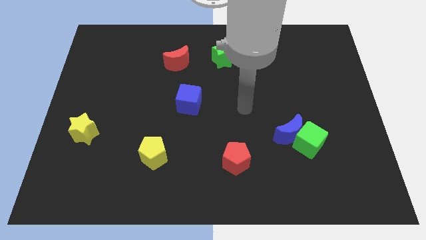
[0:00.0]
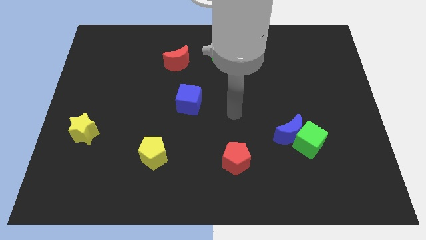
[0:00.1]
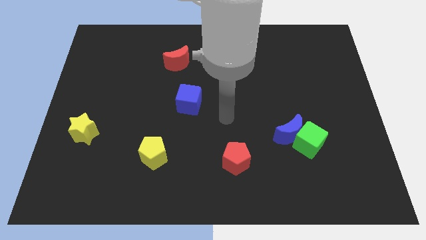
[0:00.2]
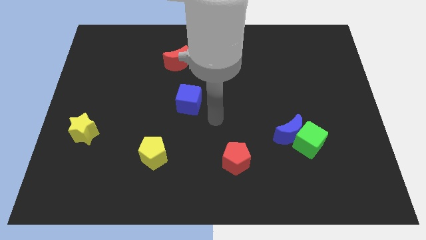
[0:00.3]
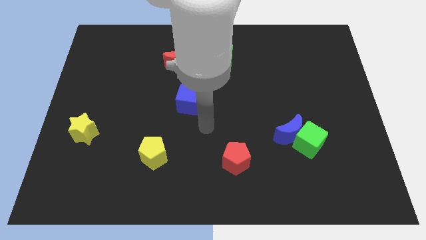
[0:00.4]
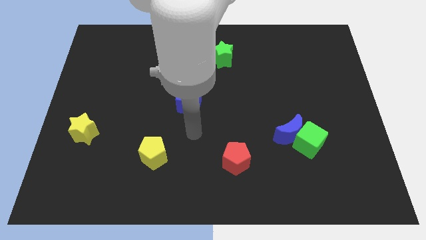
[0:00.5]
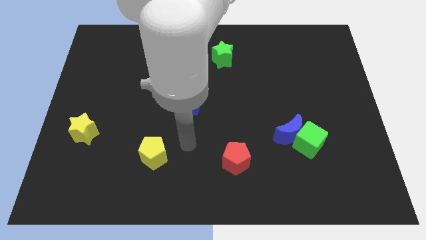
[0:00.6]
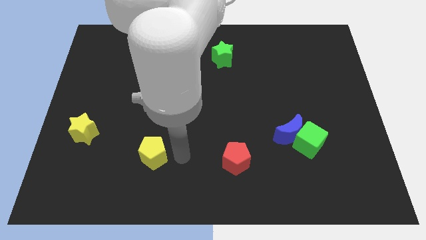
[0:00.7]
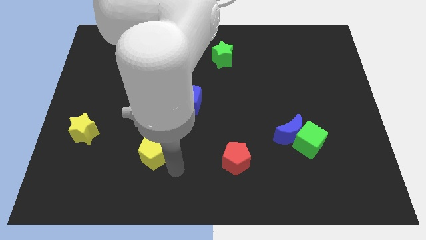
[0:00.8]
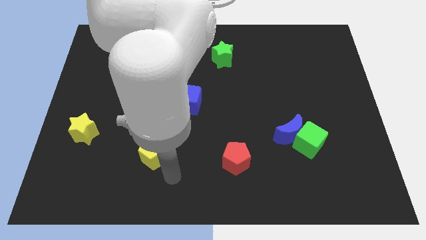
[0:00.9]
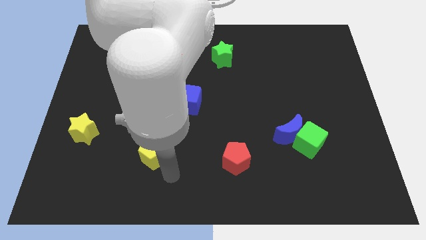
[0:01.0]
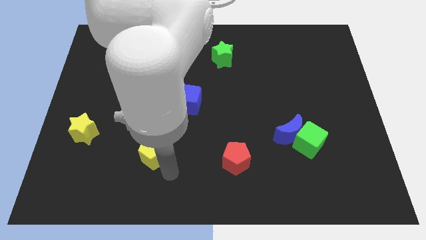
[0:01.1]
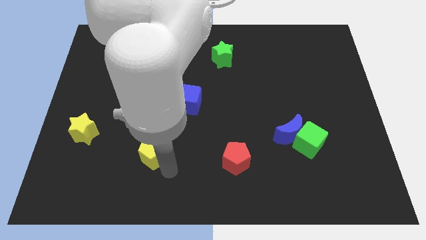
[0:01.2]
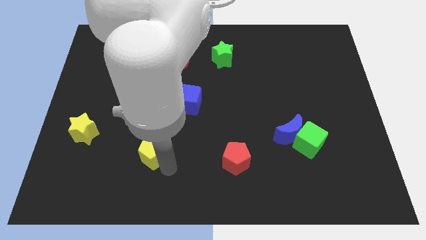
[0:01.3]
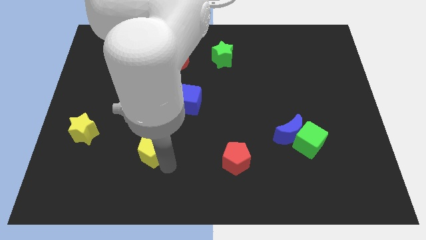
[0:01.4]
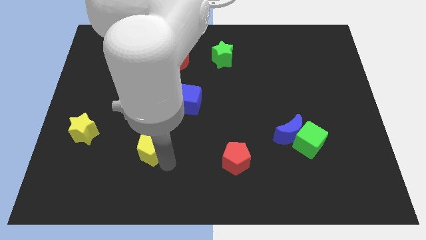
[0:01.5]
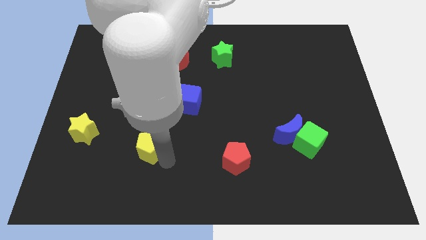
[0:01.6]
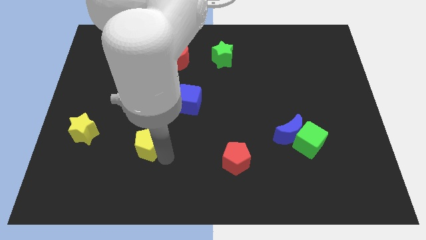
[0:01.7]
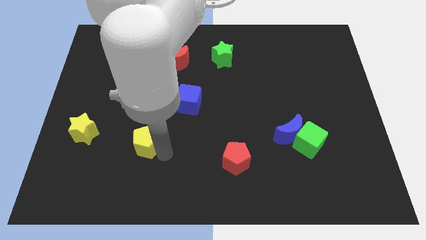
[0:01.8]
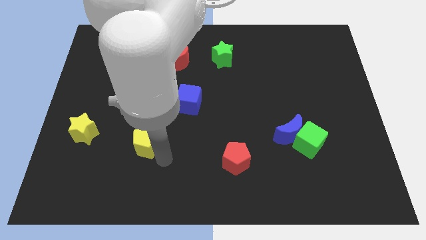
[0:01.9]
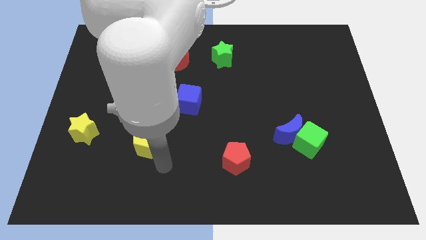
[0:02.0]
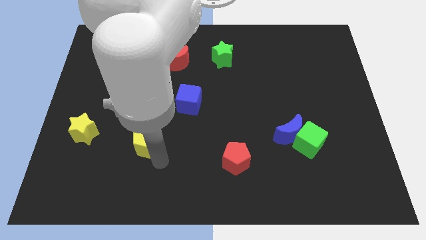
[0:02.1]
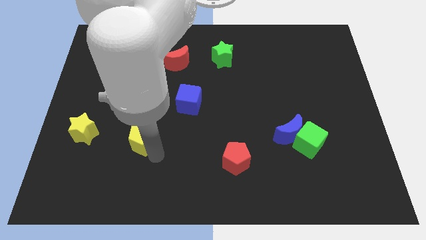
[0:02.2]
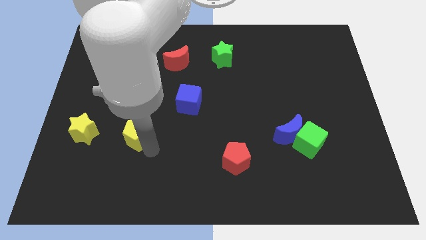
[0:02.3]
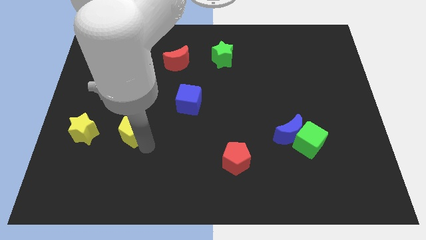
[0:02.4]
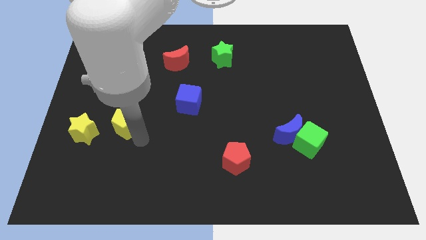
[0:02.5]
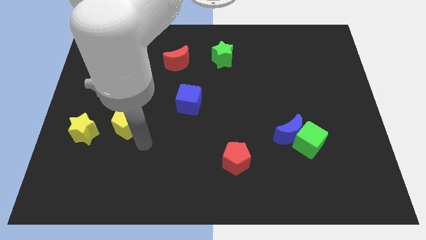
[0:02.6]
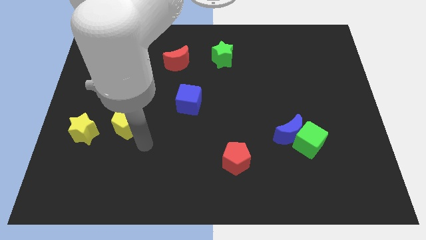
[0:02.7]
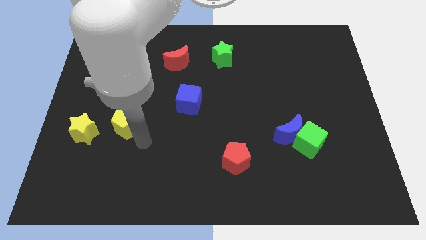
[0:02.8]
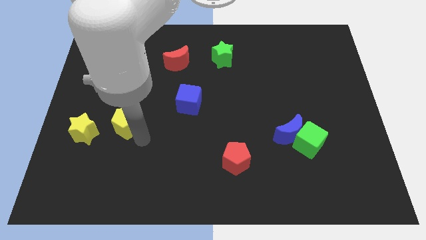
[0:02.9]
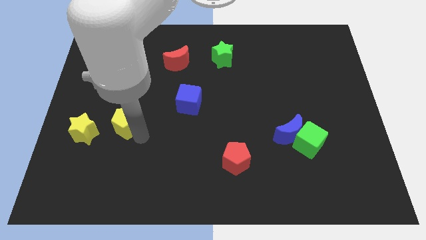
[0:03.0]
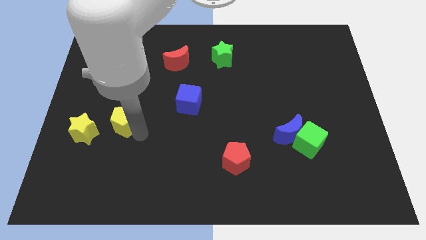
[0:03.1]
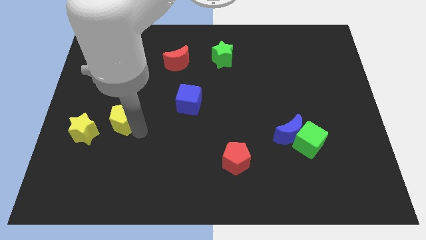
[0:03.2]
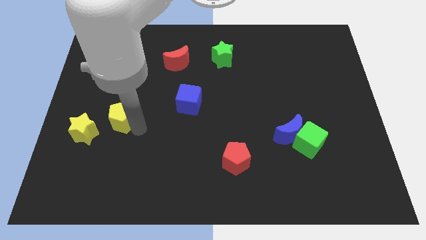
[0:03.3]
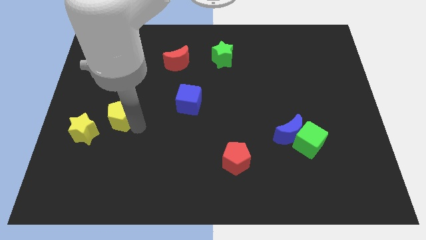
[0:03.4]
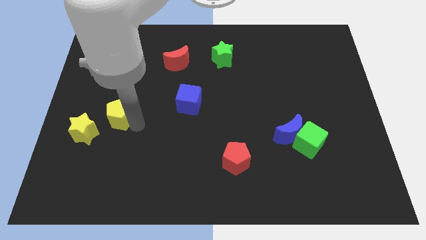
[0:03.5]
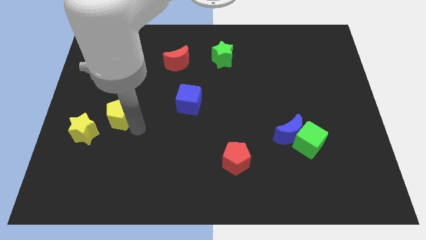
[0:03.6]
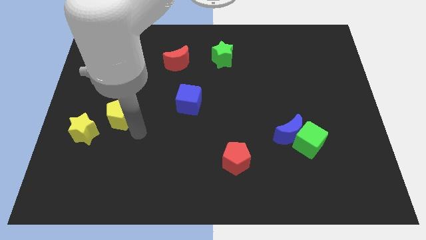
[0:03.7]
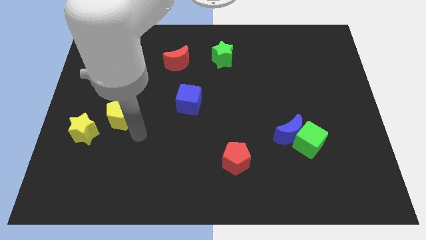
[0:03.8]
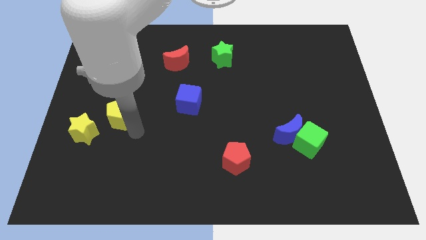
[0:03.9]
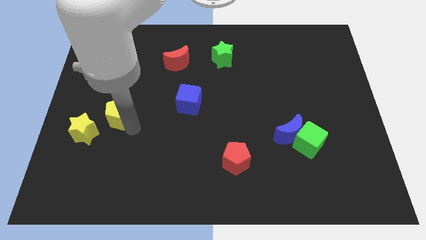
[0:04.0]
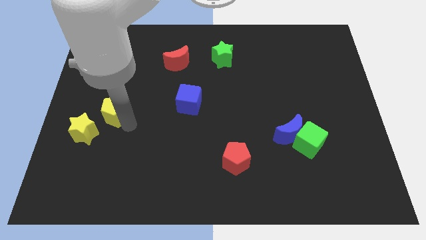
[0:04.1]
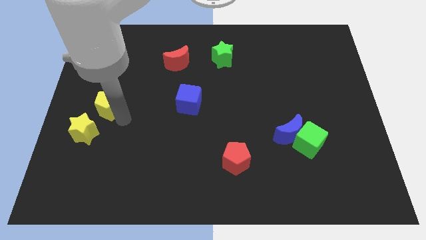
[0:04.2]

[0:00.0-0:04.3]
push the yellow pentagon above the yellow star

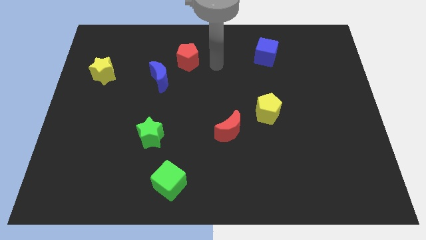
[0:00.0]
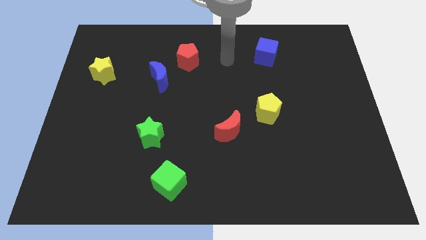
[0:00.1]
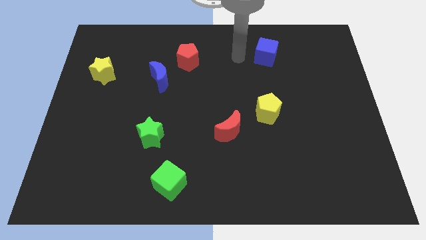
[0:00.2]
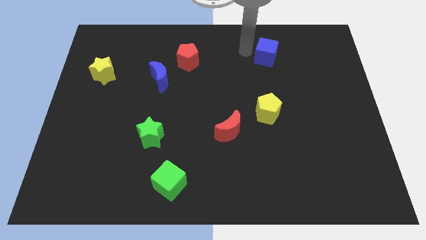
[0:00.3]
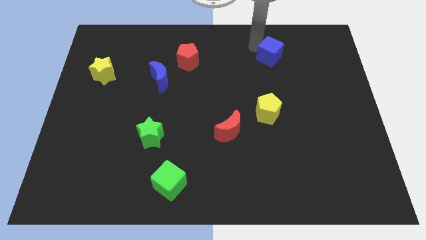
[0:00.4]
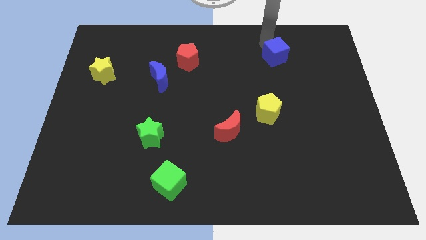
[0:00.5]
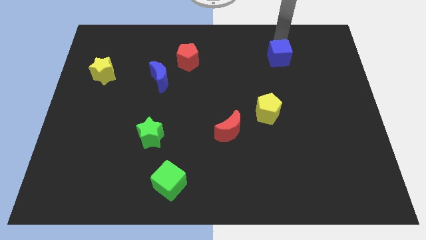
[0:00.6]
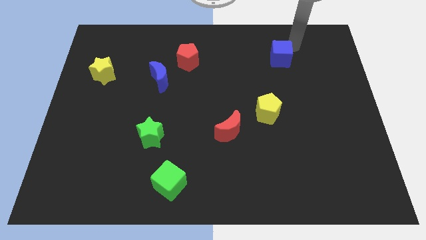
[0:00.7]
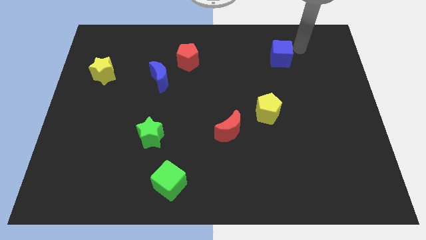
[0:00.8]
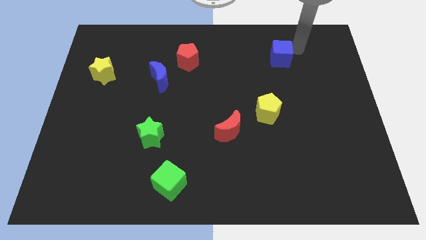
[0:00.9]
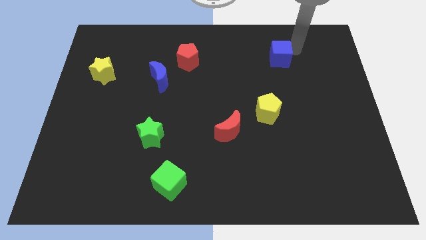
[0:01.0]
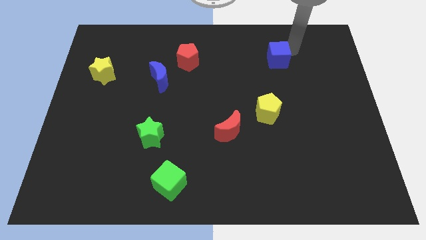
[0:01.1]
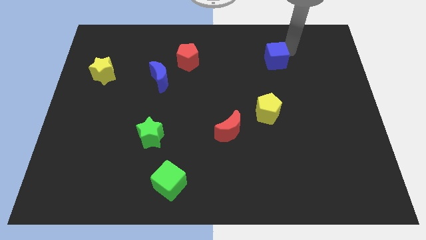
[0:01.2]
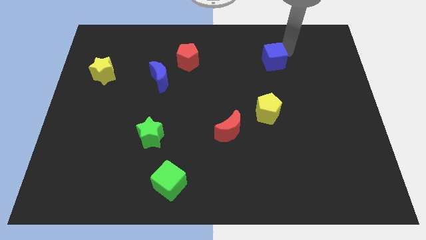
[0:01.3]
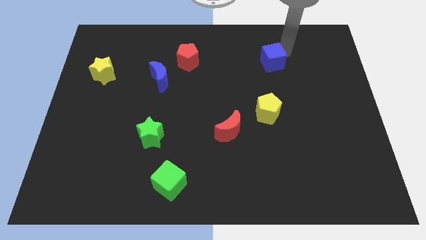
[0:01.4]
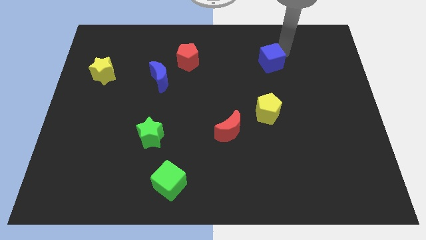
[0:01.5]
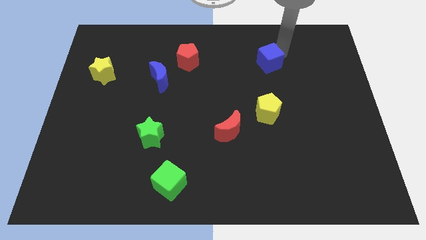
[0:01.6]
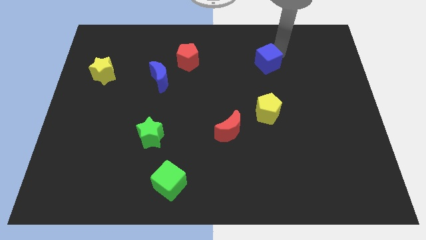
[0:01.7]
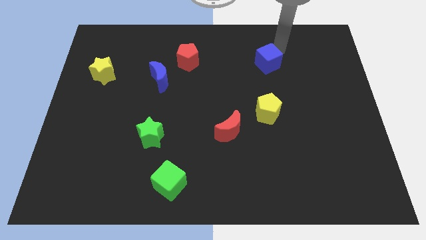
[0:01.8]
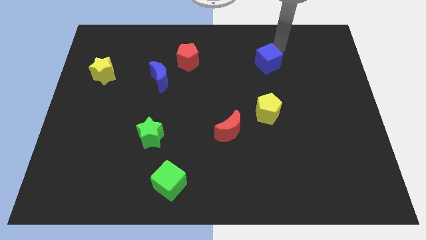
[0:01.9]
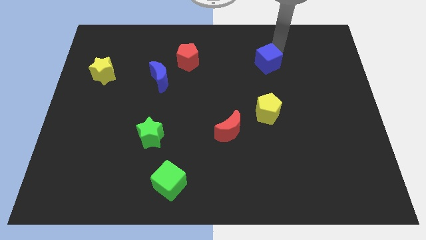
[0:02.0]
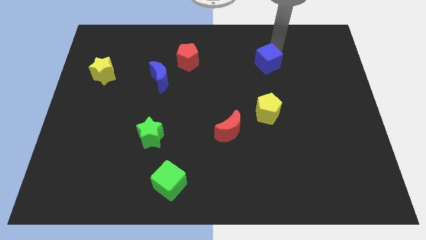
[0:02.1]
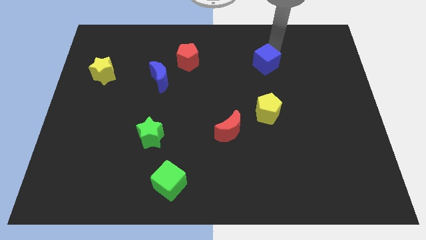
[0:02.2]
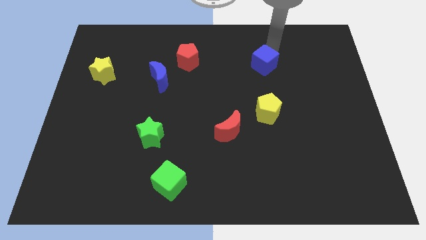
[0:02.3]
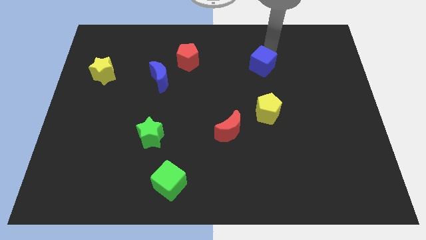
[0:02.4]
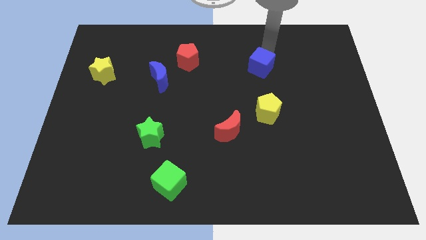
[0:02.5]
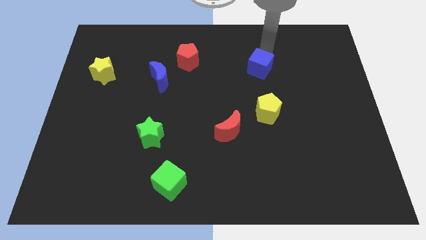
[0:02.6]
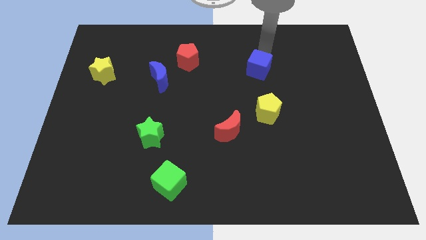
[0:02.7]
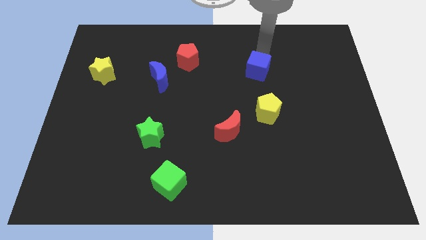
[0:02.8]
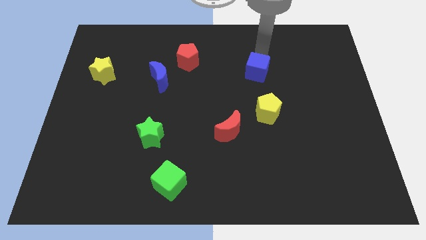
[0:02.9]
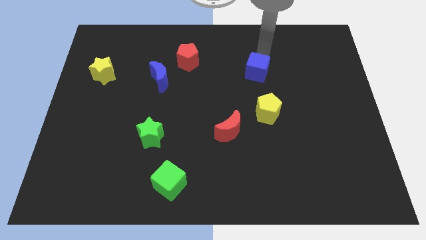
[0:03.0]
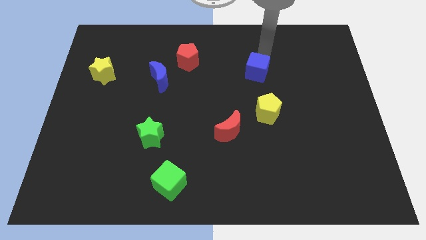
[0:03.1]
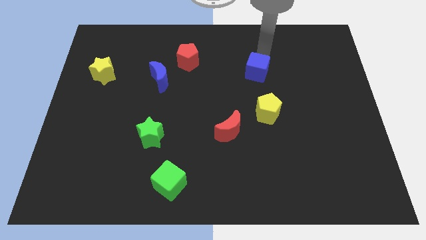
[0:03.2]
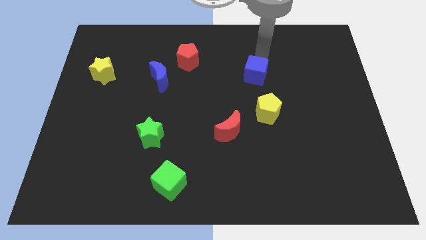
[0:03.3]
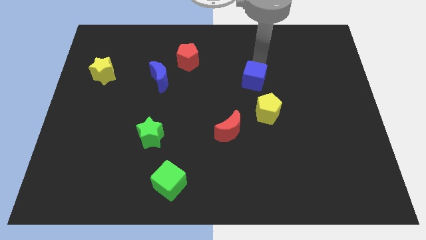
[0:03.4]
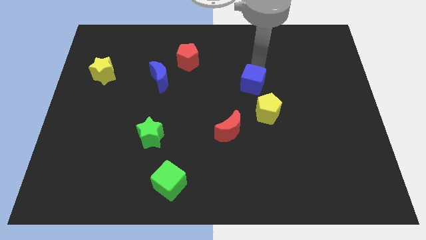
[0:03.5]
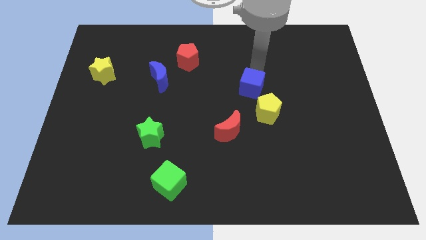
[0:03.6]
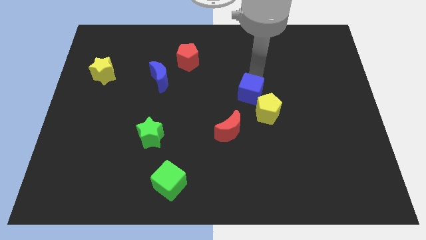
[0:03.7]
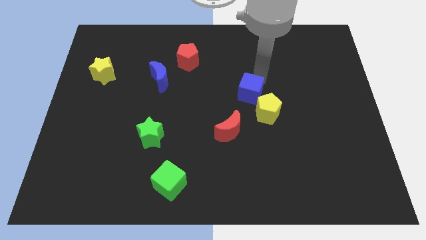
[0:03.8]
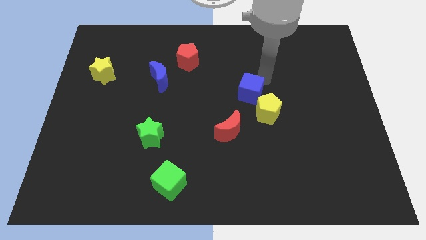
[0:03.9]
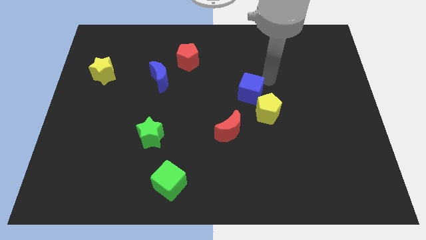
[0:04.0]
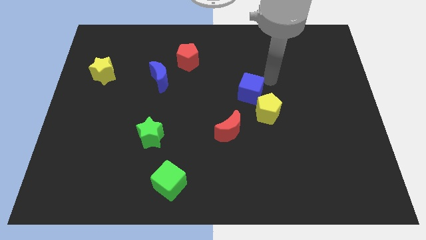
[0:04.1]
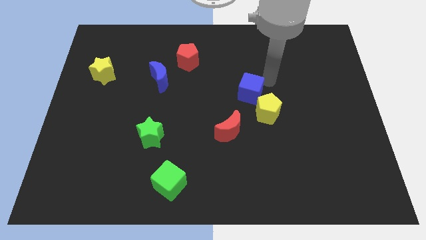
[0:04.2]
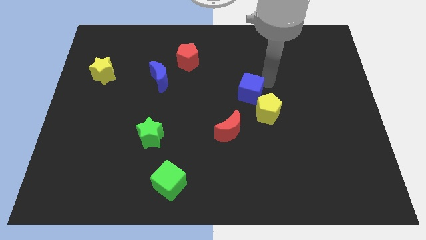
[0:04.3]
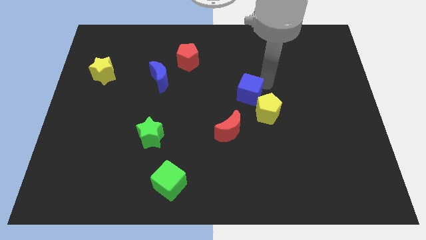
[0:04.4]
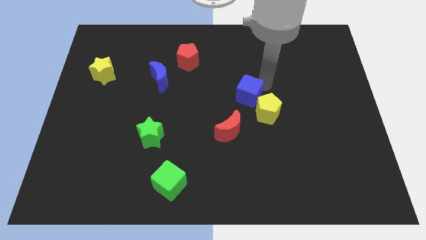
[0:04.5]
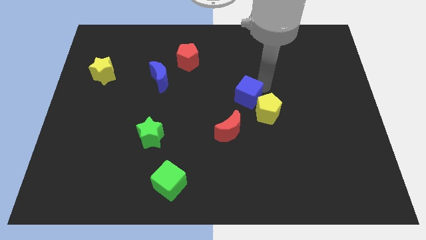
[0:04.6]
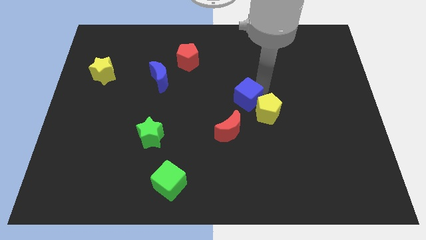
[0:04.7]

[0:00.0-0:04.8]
push the blue cube left of the yellow pentagon
